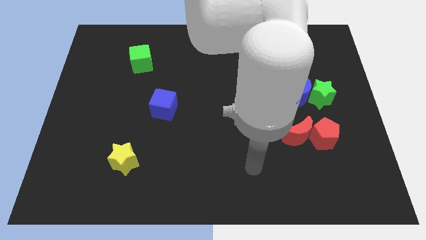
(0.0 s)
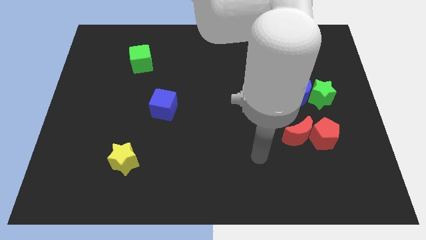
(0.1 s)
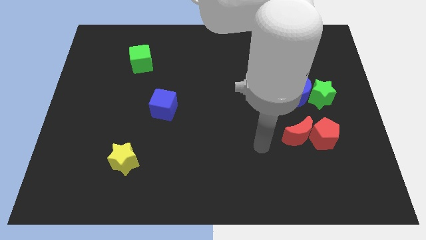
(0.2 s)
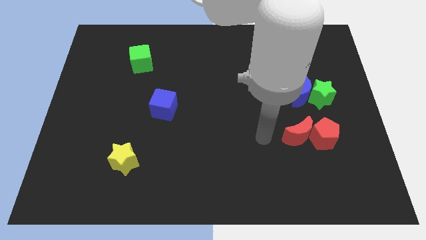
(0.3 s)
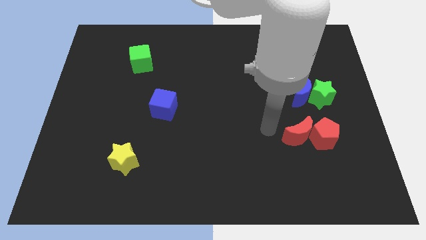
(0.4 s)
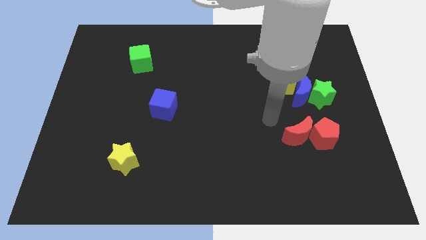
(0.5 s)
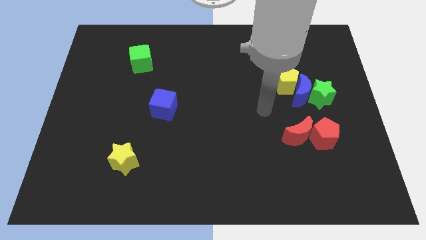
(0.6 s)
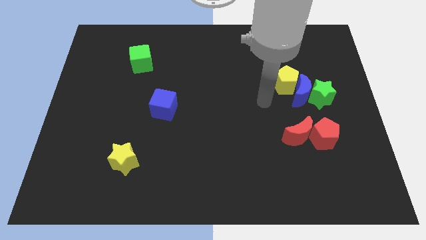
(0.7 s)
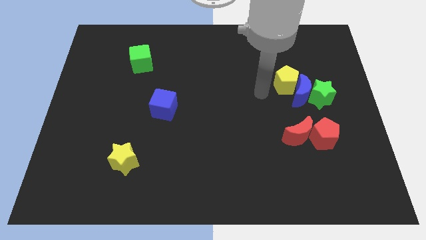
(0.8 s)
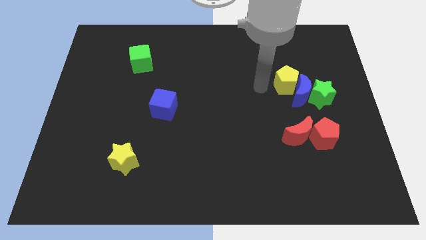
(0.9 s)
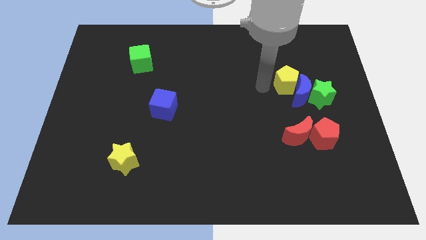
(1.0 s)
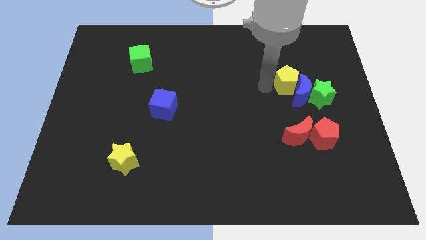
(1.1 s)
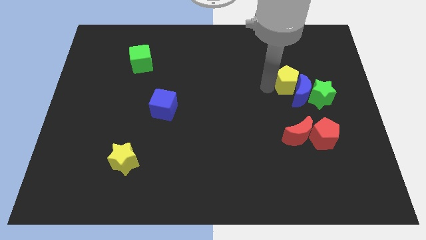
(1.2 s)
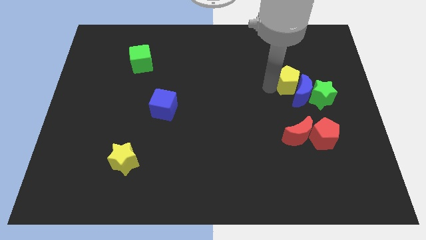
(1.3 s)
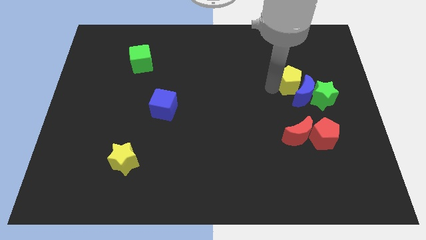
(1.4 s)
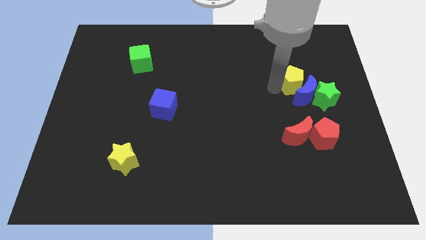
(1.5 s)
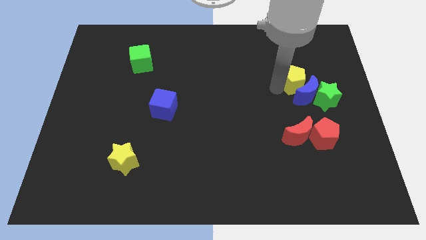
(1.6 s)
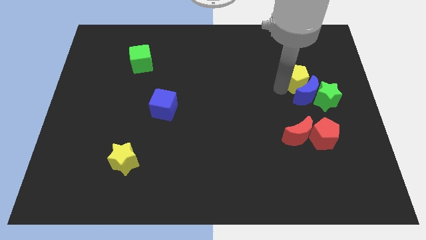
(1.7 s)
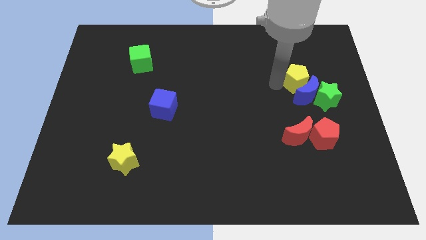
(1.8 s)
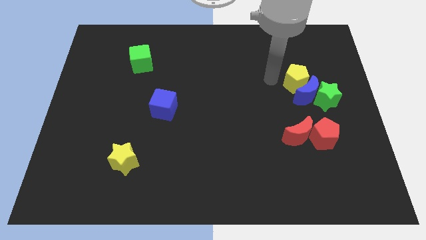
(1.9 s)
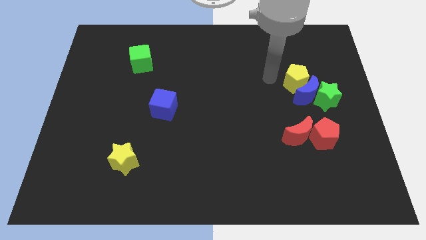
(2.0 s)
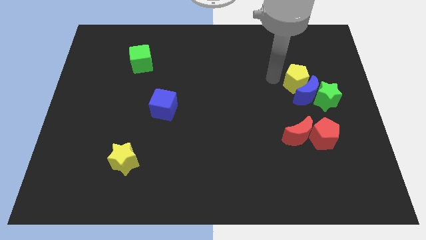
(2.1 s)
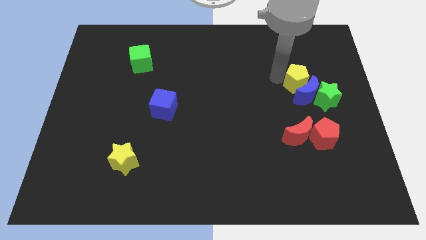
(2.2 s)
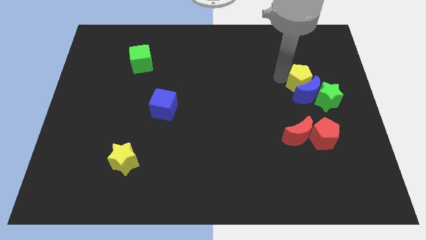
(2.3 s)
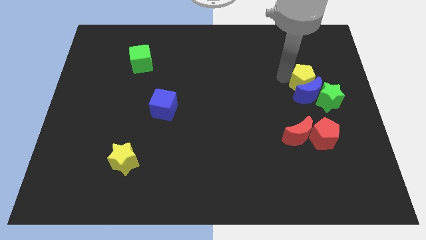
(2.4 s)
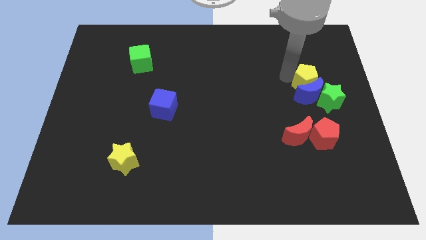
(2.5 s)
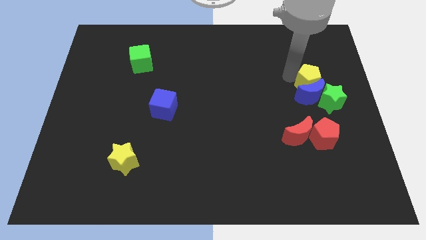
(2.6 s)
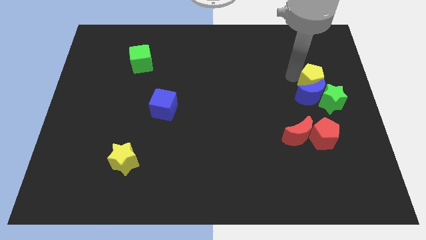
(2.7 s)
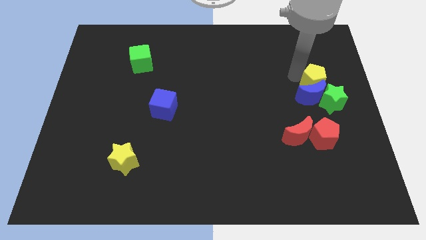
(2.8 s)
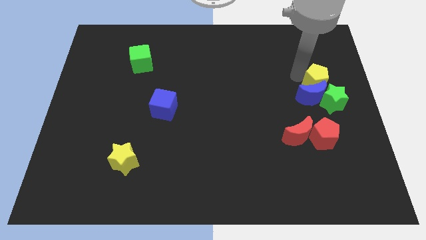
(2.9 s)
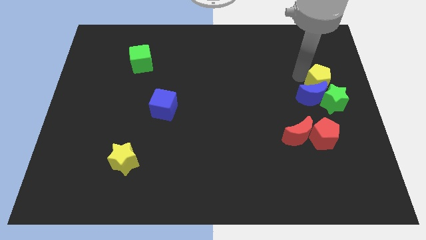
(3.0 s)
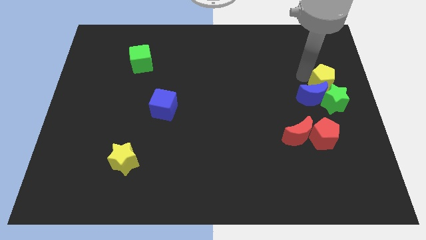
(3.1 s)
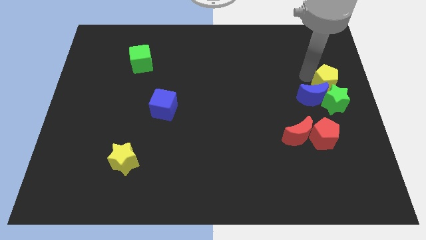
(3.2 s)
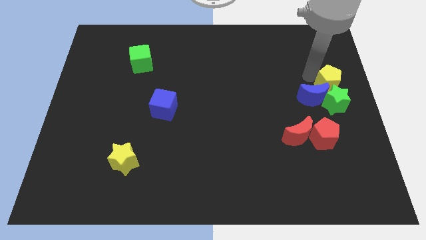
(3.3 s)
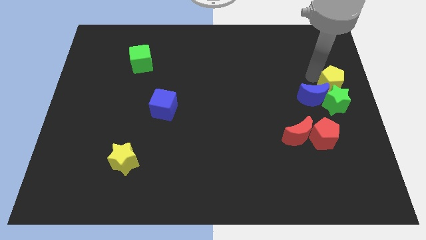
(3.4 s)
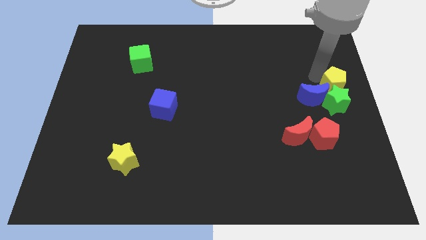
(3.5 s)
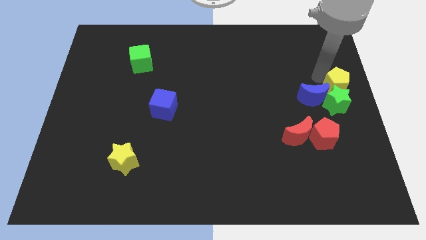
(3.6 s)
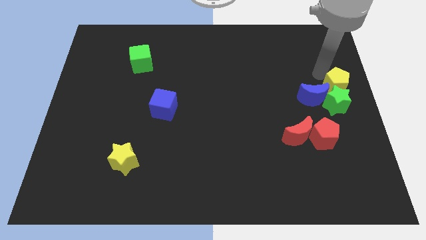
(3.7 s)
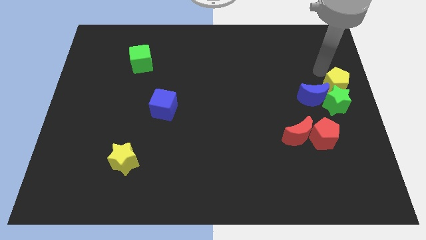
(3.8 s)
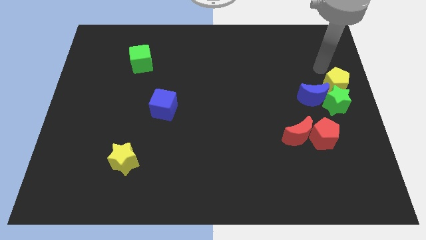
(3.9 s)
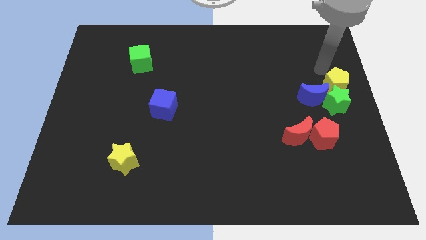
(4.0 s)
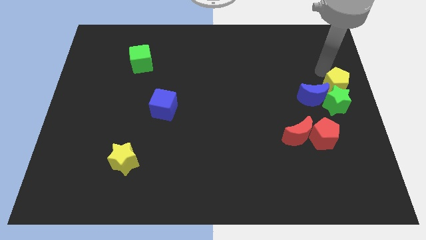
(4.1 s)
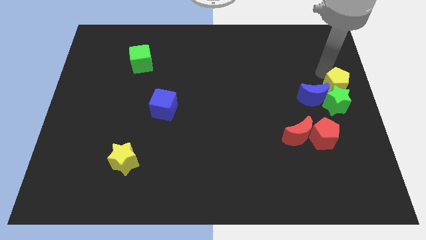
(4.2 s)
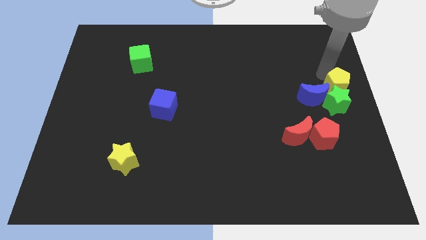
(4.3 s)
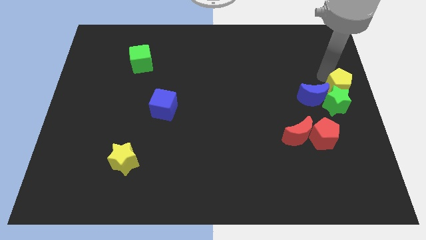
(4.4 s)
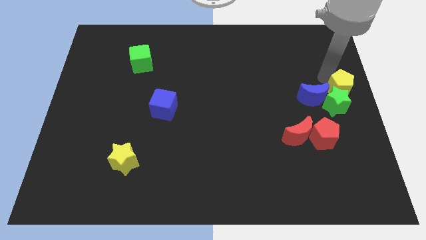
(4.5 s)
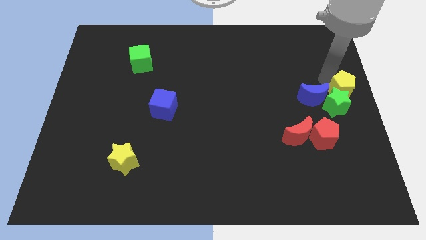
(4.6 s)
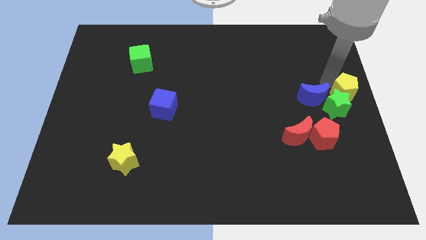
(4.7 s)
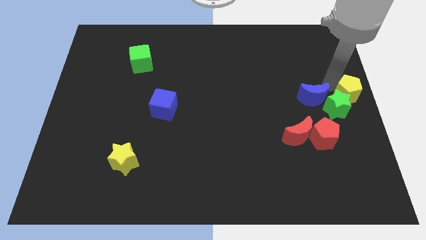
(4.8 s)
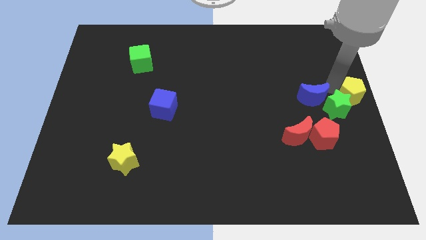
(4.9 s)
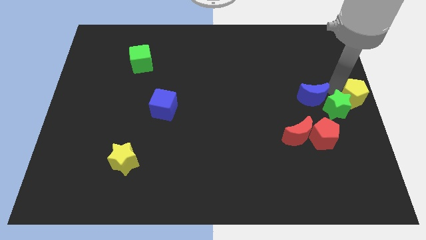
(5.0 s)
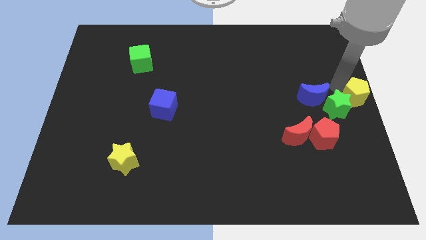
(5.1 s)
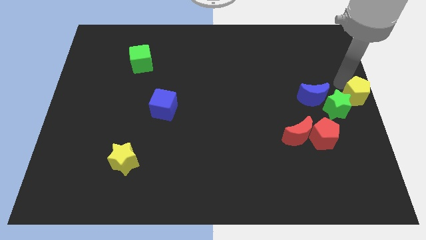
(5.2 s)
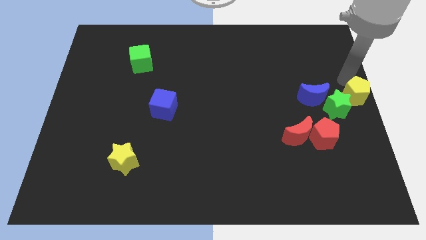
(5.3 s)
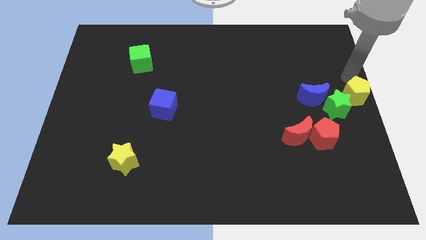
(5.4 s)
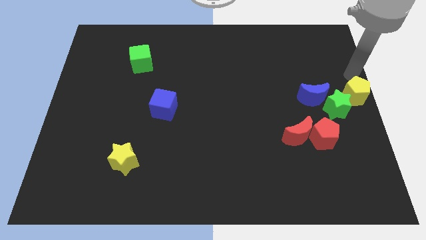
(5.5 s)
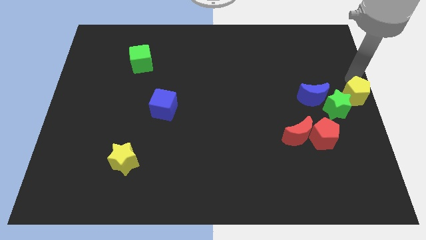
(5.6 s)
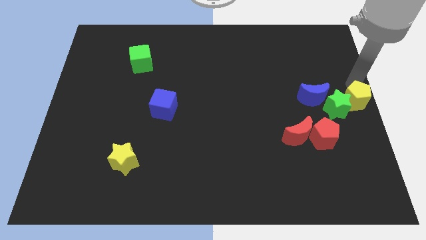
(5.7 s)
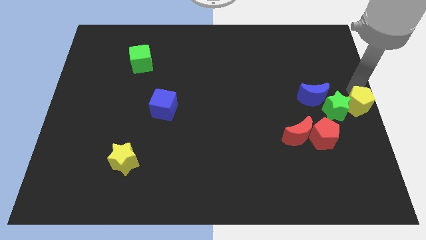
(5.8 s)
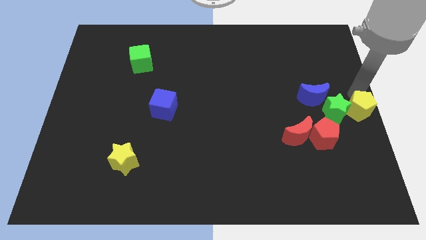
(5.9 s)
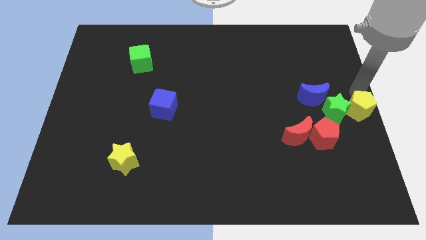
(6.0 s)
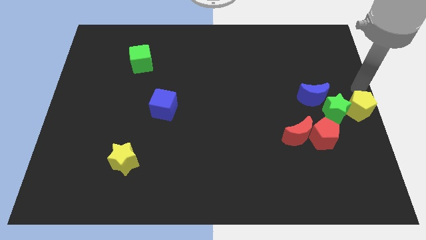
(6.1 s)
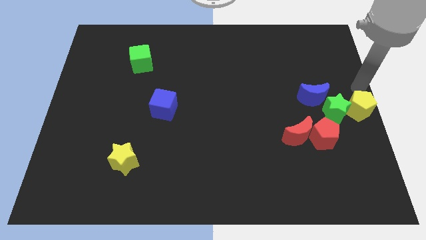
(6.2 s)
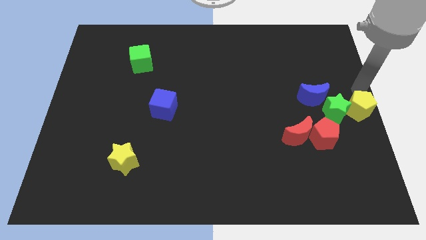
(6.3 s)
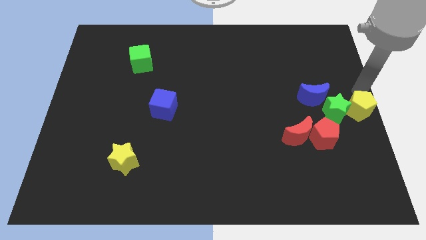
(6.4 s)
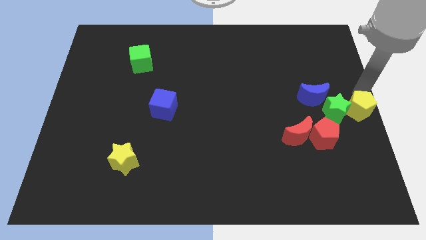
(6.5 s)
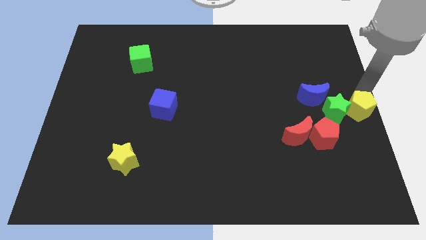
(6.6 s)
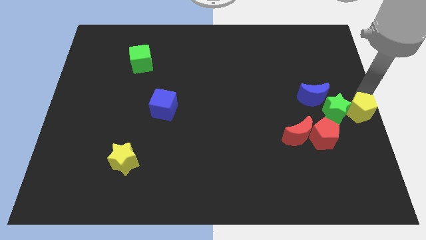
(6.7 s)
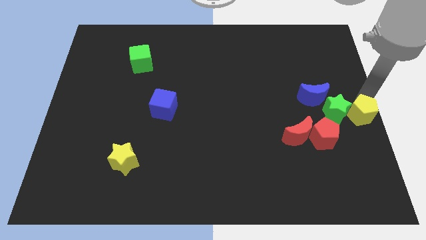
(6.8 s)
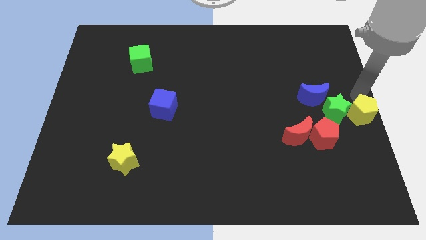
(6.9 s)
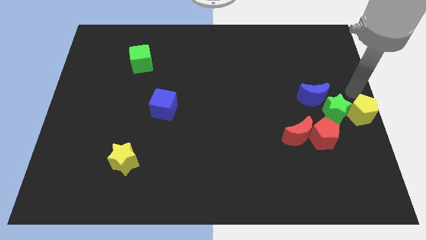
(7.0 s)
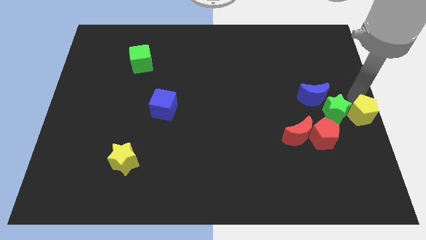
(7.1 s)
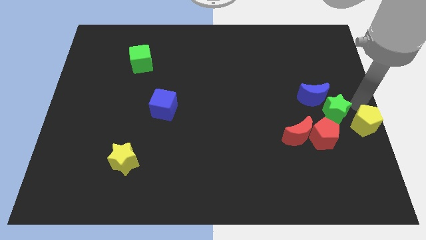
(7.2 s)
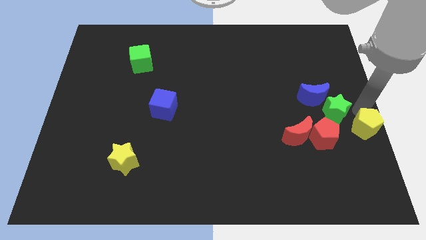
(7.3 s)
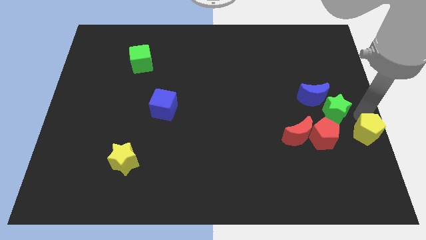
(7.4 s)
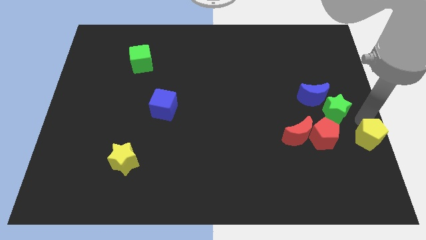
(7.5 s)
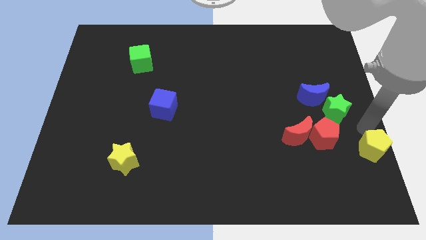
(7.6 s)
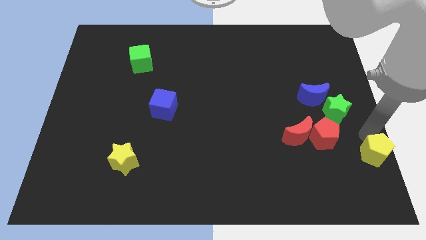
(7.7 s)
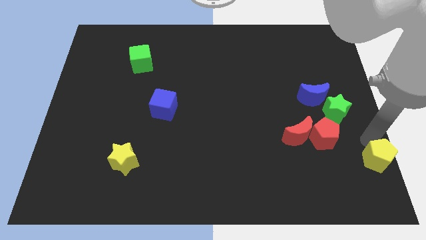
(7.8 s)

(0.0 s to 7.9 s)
slide the yellow pentagon to the bottom right corner
